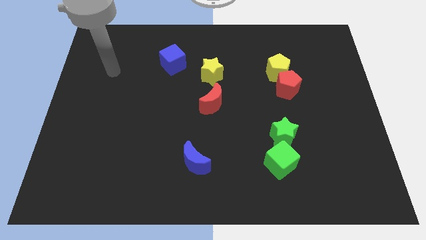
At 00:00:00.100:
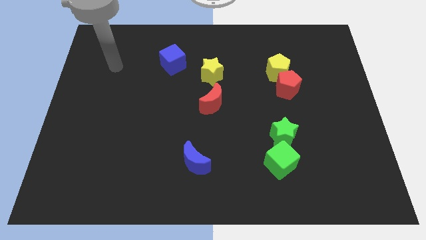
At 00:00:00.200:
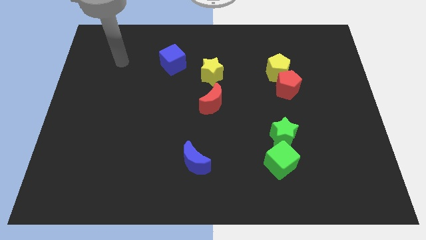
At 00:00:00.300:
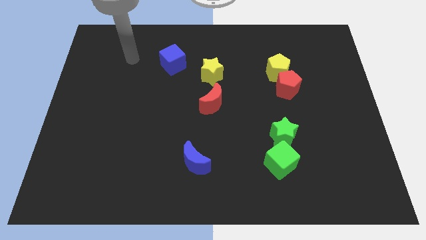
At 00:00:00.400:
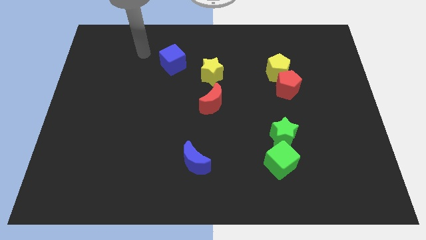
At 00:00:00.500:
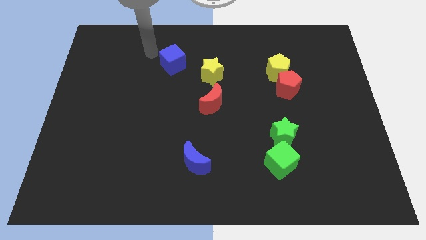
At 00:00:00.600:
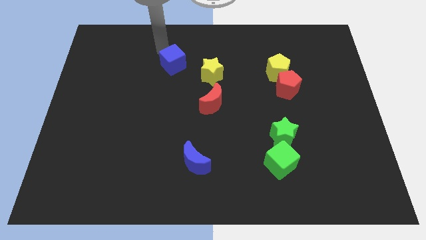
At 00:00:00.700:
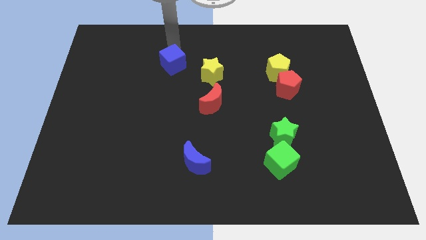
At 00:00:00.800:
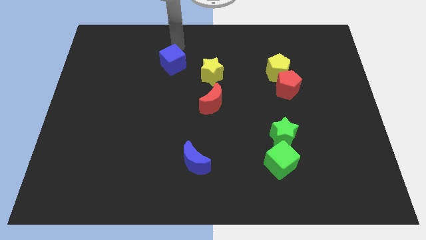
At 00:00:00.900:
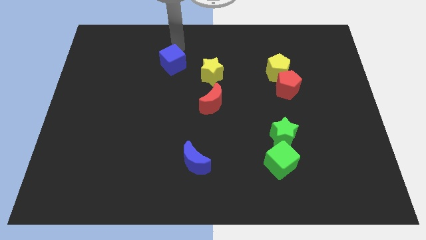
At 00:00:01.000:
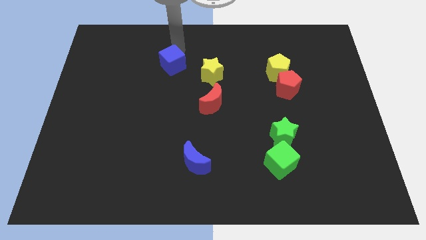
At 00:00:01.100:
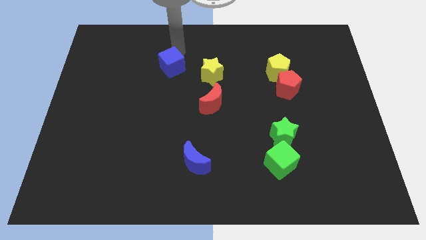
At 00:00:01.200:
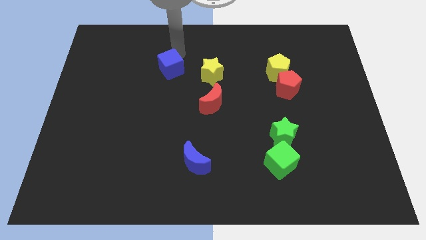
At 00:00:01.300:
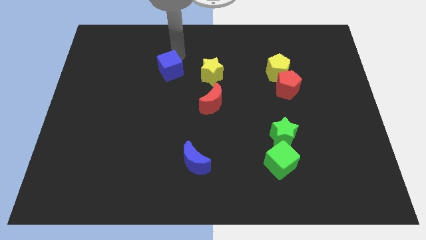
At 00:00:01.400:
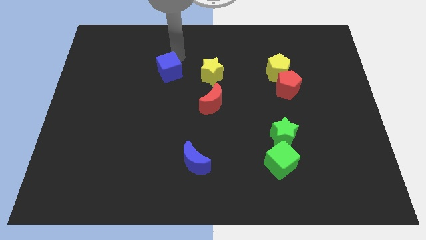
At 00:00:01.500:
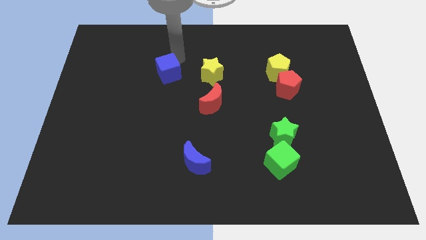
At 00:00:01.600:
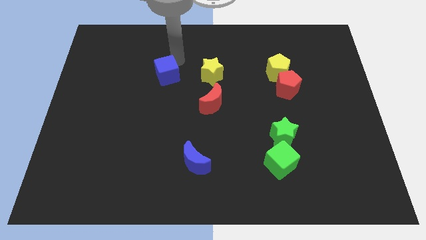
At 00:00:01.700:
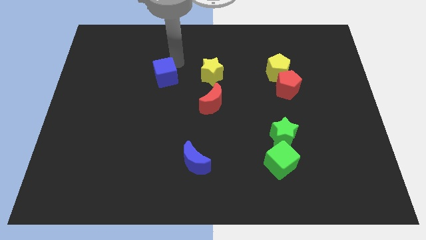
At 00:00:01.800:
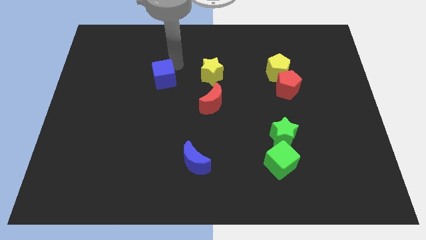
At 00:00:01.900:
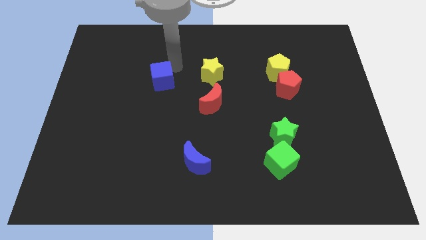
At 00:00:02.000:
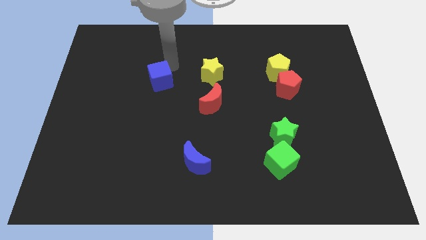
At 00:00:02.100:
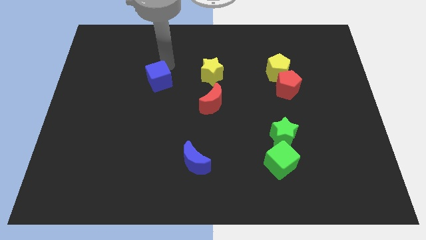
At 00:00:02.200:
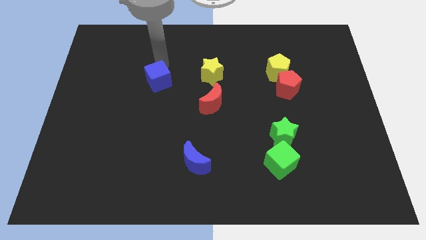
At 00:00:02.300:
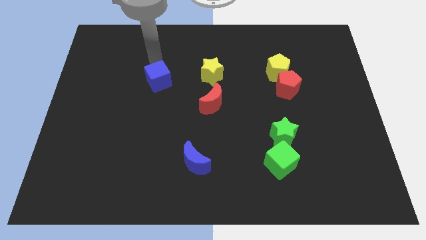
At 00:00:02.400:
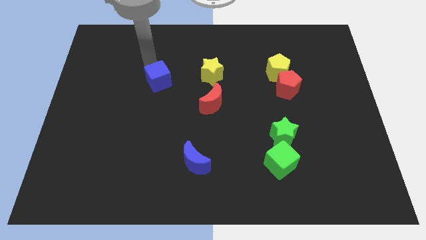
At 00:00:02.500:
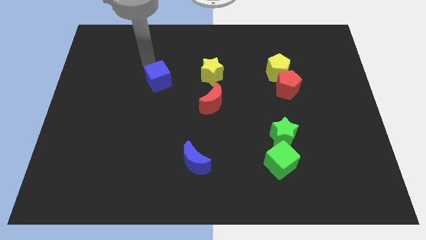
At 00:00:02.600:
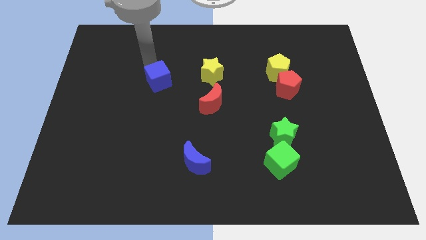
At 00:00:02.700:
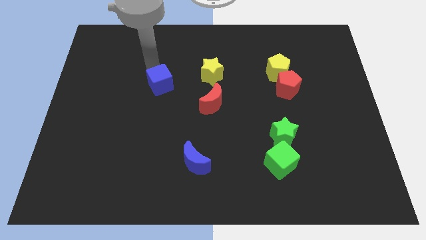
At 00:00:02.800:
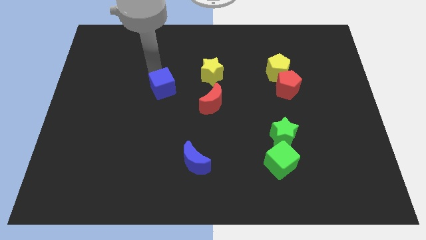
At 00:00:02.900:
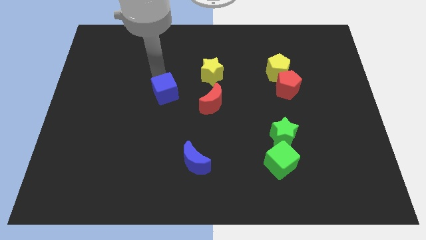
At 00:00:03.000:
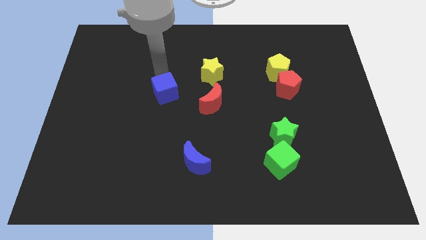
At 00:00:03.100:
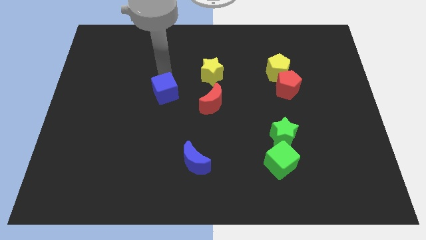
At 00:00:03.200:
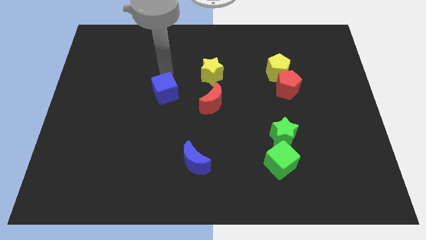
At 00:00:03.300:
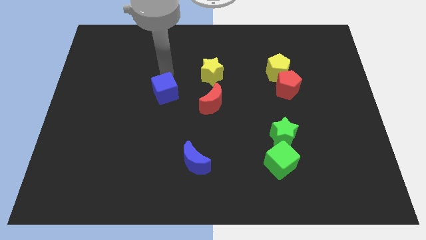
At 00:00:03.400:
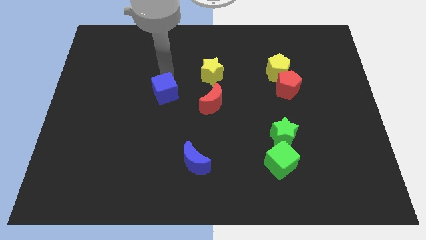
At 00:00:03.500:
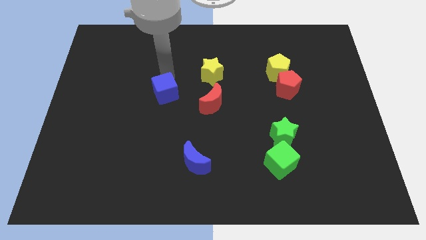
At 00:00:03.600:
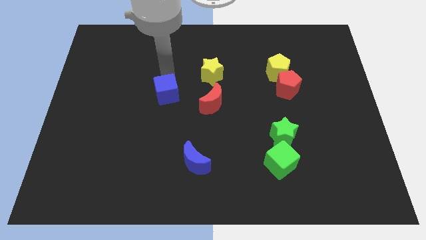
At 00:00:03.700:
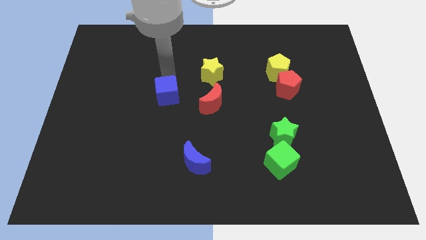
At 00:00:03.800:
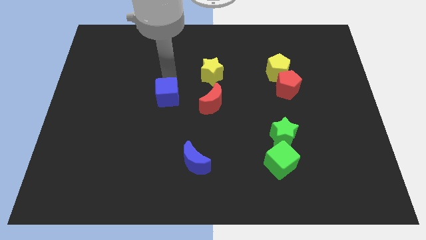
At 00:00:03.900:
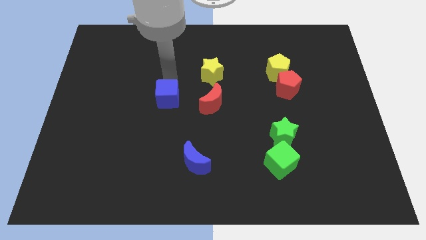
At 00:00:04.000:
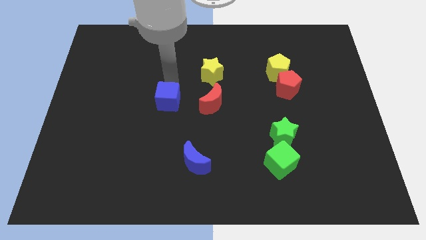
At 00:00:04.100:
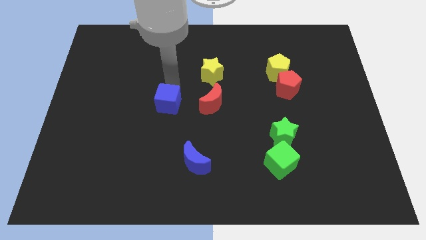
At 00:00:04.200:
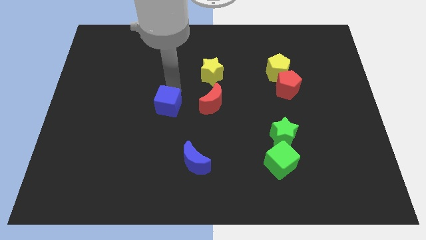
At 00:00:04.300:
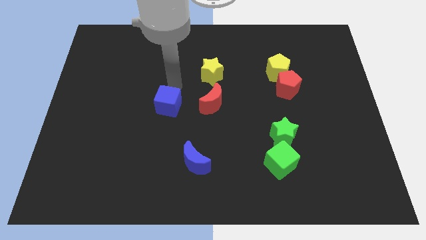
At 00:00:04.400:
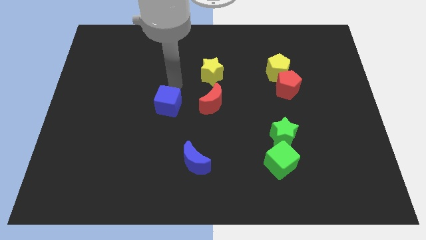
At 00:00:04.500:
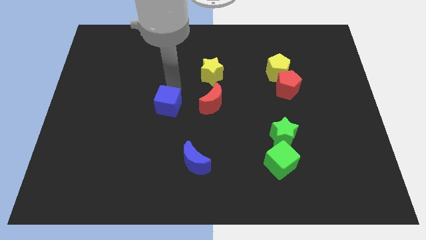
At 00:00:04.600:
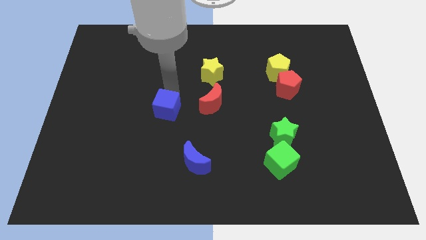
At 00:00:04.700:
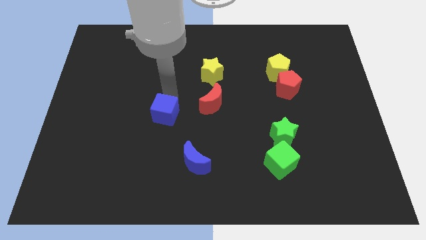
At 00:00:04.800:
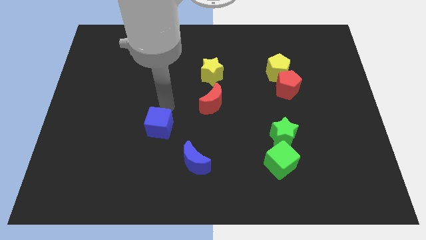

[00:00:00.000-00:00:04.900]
slide the blue cube down

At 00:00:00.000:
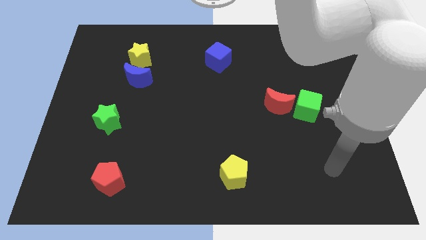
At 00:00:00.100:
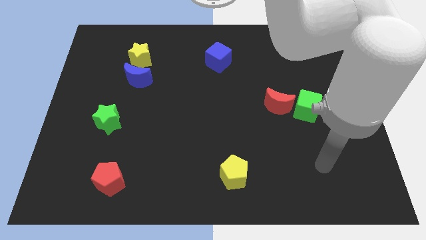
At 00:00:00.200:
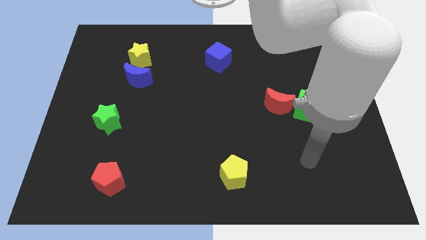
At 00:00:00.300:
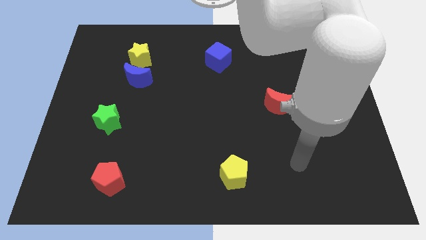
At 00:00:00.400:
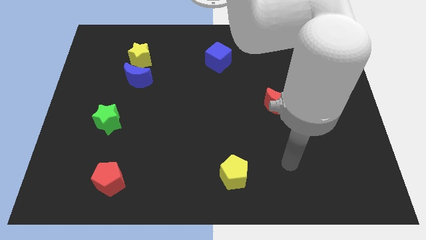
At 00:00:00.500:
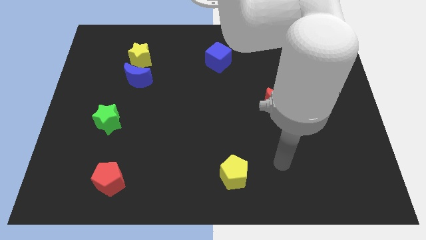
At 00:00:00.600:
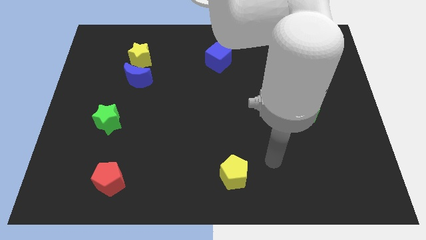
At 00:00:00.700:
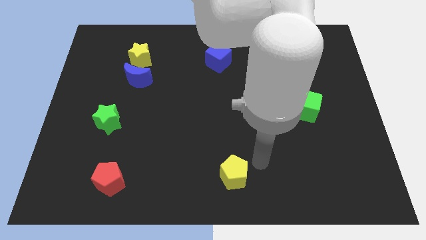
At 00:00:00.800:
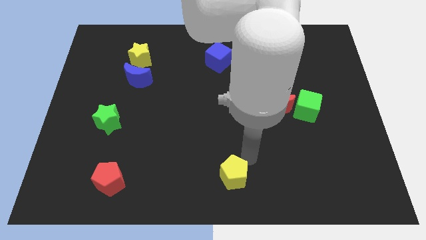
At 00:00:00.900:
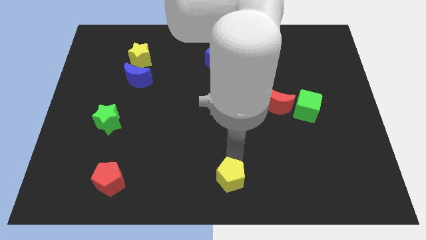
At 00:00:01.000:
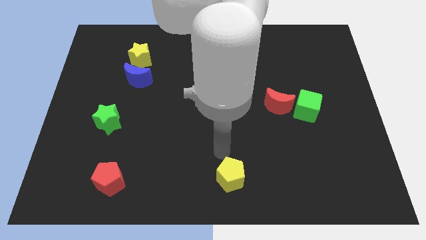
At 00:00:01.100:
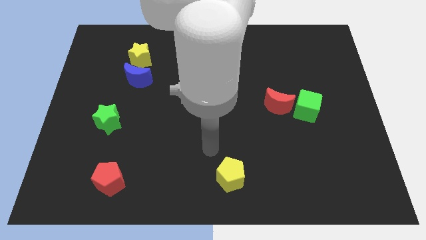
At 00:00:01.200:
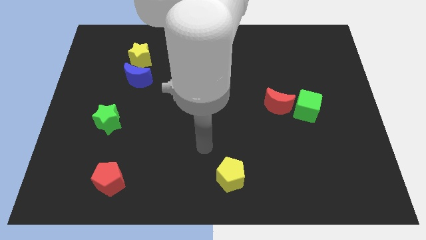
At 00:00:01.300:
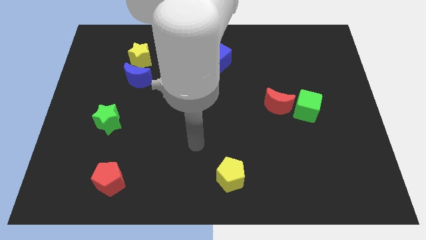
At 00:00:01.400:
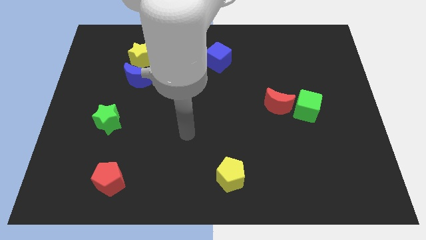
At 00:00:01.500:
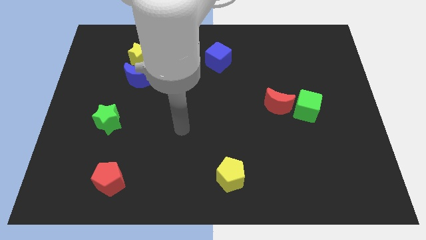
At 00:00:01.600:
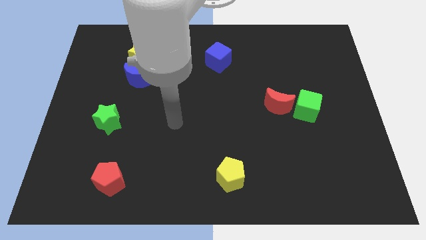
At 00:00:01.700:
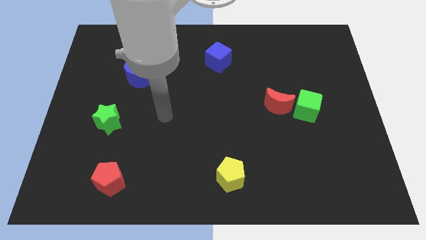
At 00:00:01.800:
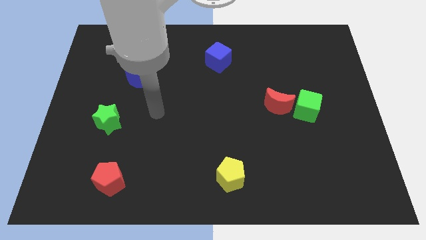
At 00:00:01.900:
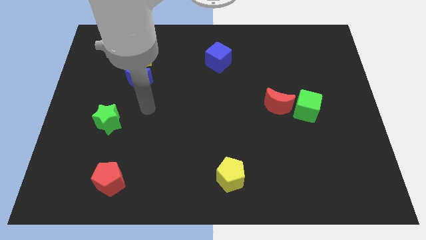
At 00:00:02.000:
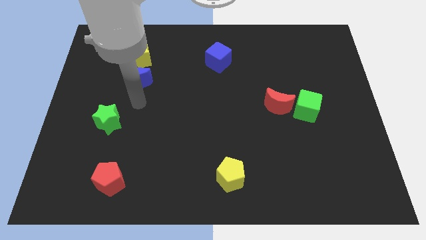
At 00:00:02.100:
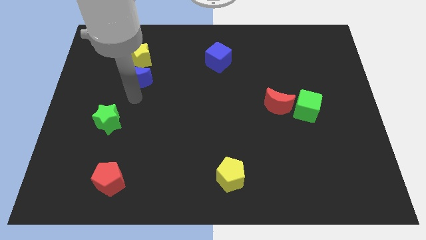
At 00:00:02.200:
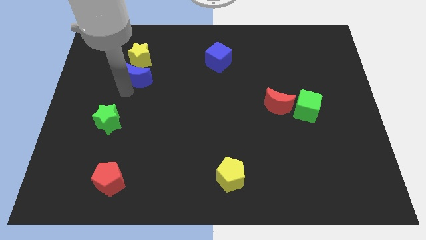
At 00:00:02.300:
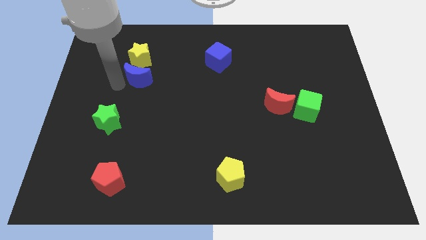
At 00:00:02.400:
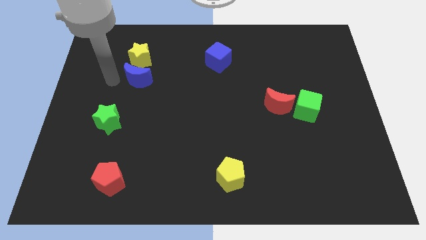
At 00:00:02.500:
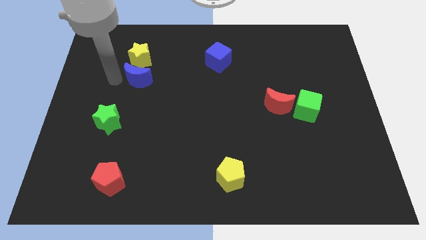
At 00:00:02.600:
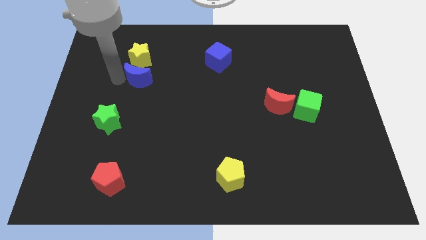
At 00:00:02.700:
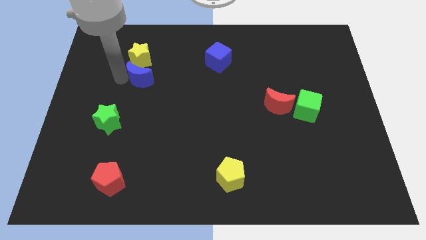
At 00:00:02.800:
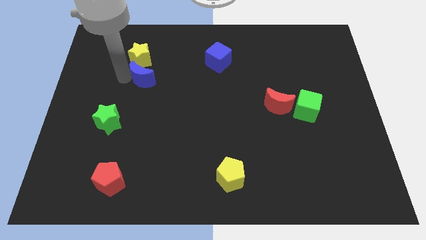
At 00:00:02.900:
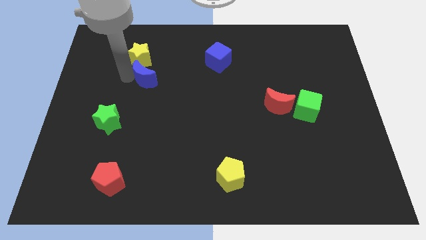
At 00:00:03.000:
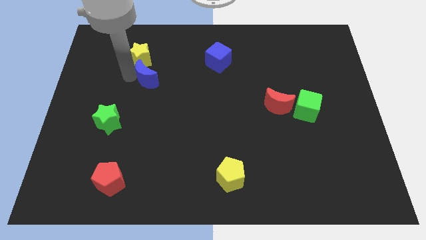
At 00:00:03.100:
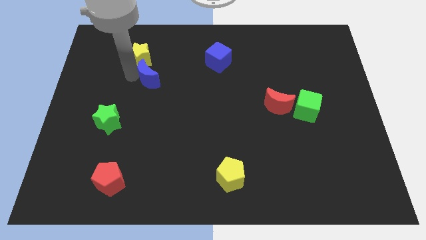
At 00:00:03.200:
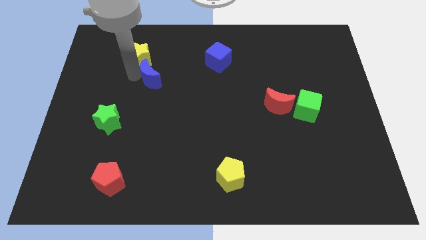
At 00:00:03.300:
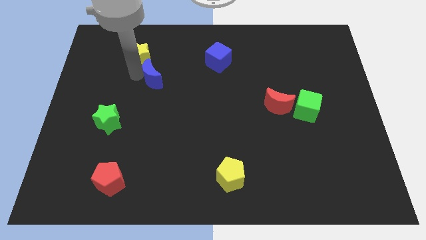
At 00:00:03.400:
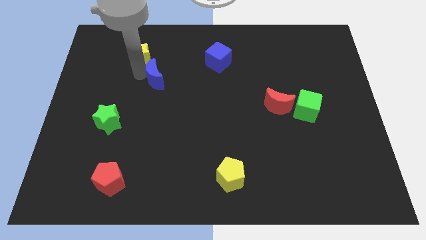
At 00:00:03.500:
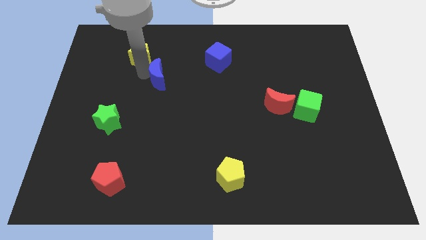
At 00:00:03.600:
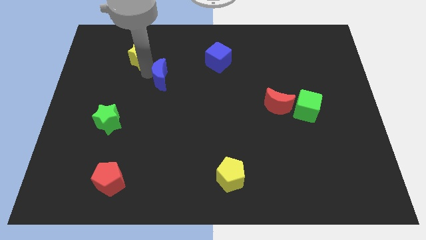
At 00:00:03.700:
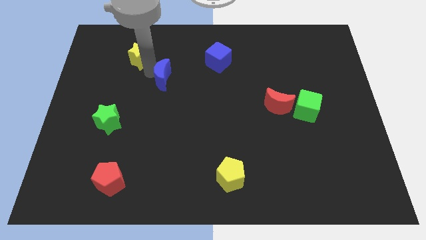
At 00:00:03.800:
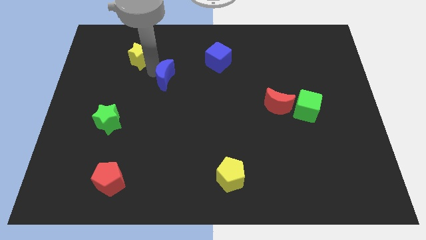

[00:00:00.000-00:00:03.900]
slightly slide the blue moon right
